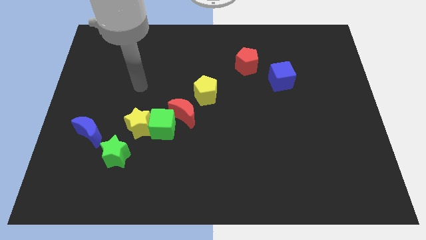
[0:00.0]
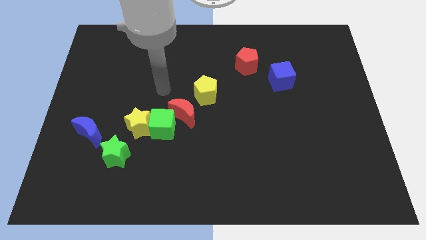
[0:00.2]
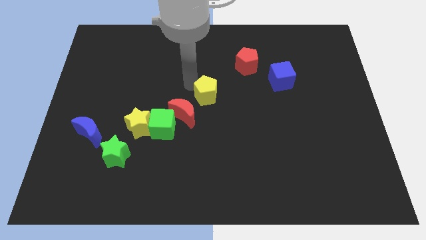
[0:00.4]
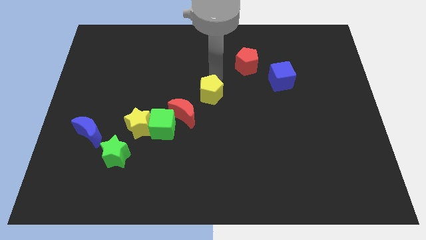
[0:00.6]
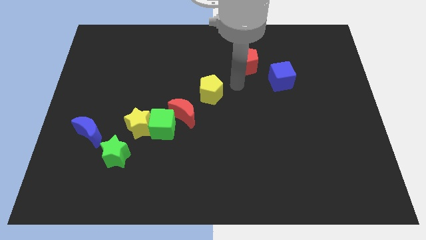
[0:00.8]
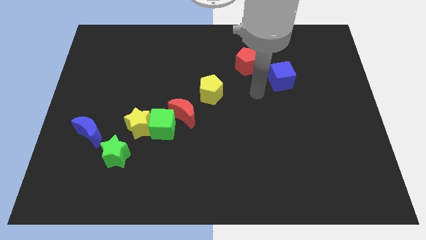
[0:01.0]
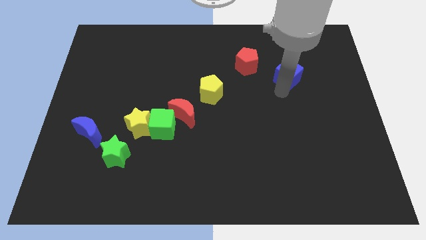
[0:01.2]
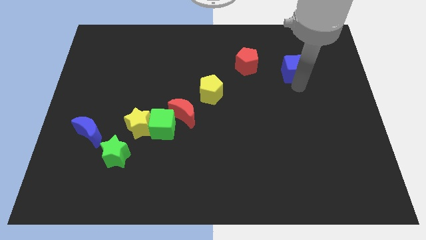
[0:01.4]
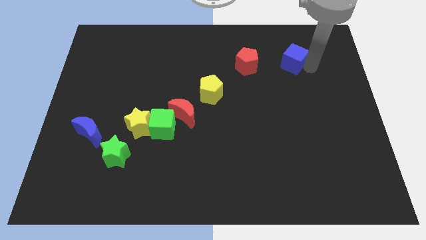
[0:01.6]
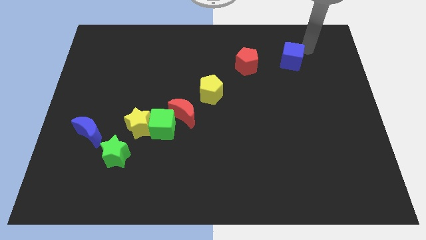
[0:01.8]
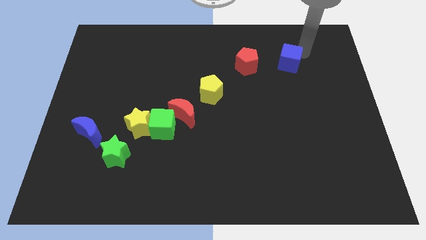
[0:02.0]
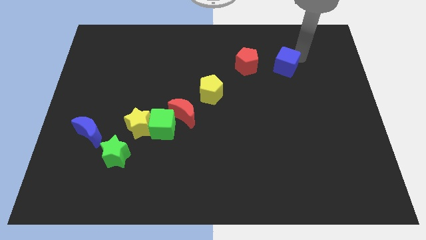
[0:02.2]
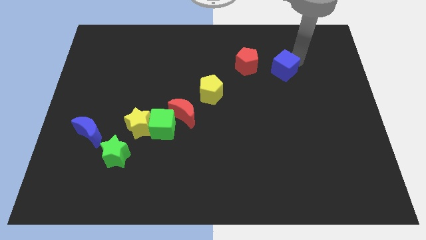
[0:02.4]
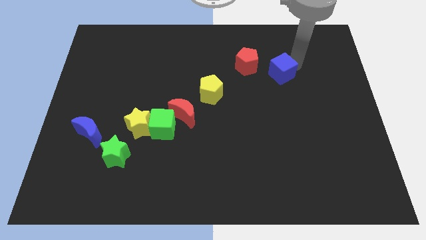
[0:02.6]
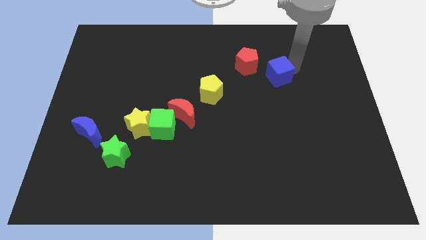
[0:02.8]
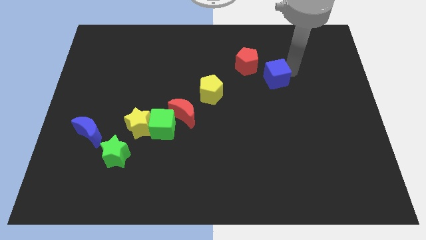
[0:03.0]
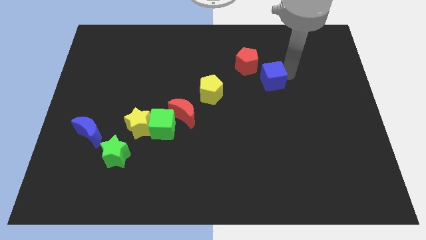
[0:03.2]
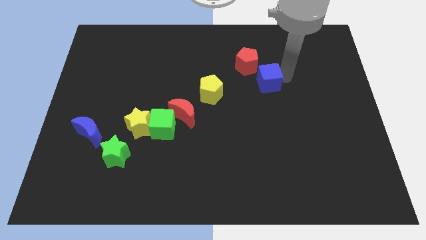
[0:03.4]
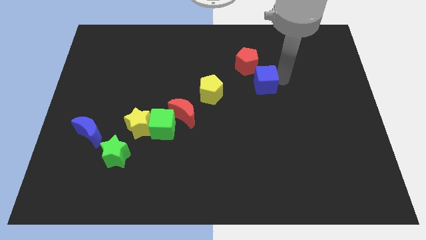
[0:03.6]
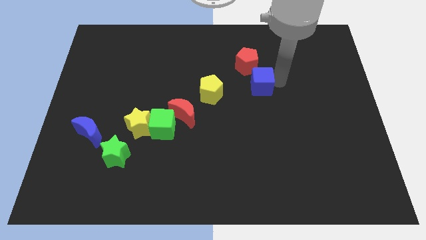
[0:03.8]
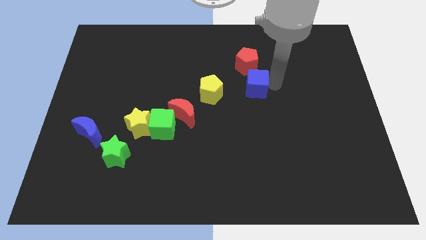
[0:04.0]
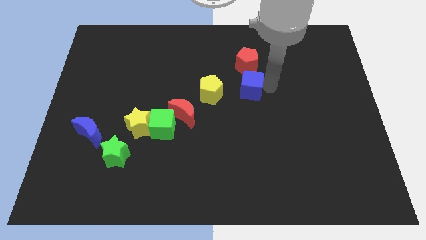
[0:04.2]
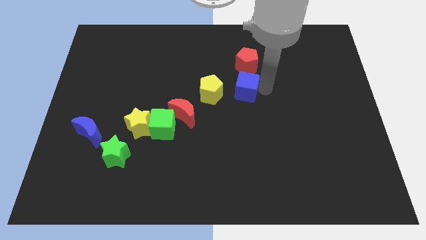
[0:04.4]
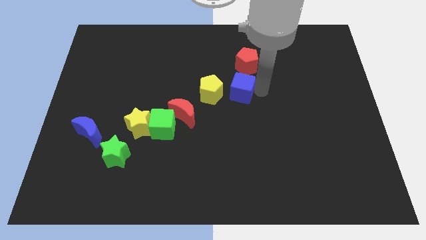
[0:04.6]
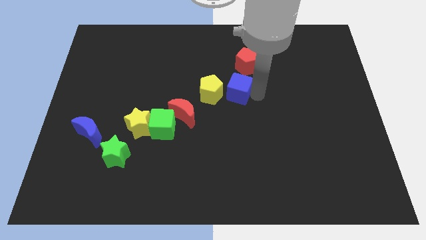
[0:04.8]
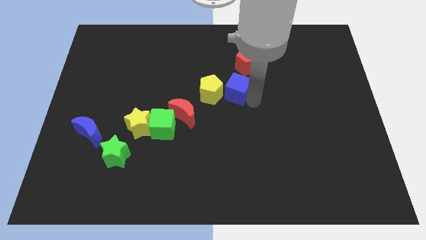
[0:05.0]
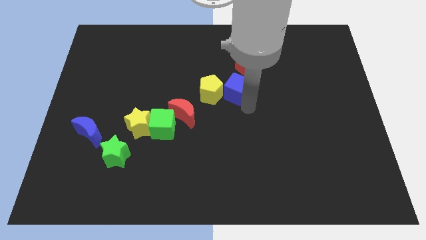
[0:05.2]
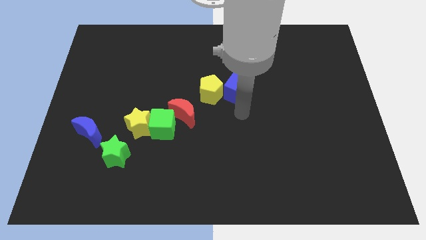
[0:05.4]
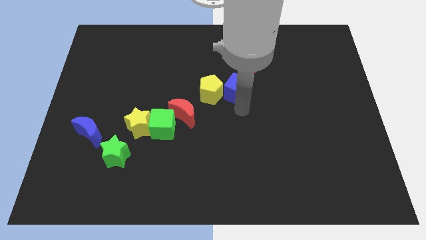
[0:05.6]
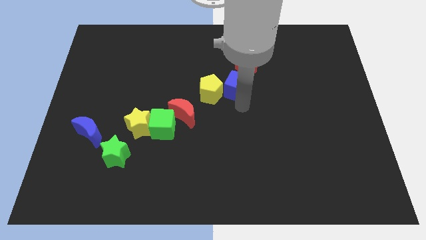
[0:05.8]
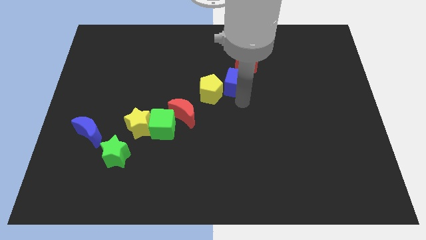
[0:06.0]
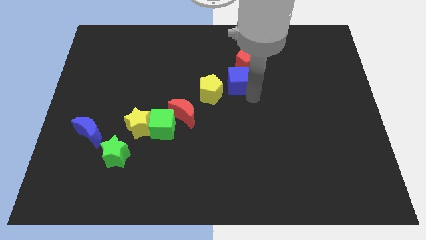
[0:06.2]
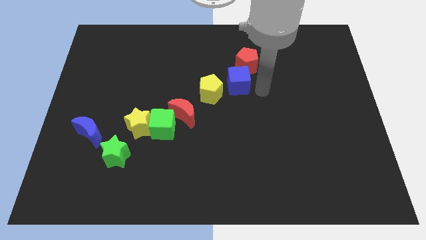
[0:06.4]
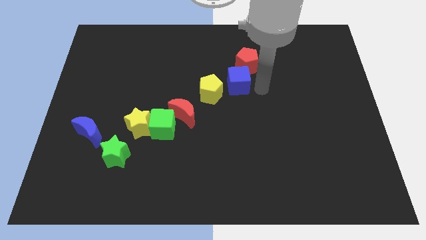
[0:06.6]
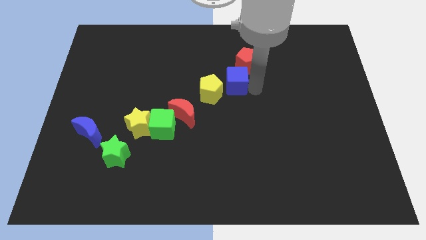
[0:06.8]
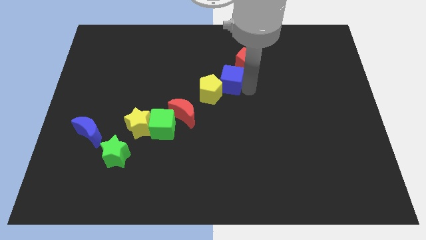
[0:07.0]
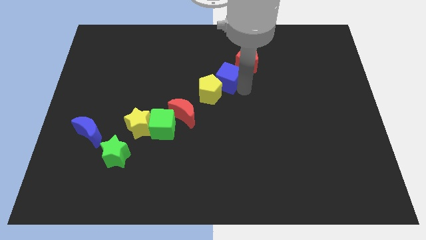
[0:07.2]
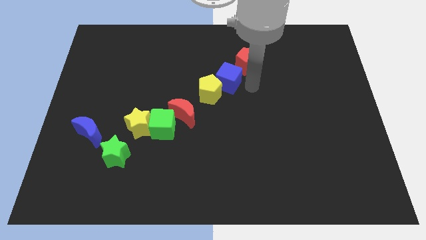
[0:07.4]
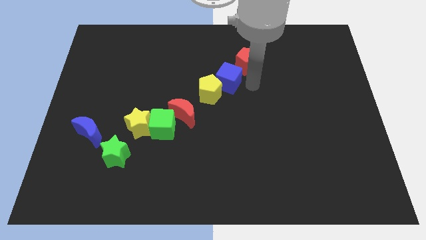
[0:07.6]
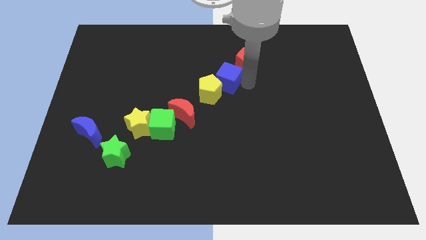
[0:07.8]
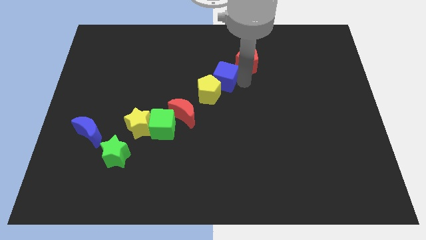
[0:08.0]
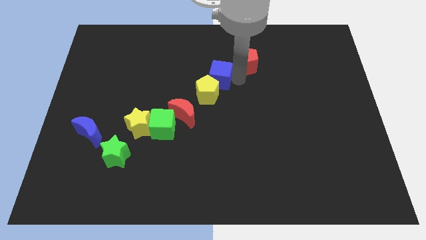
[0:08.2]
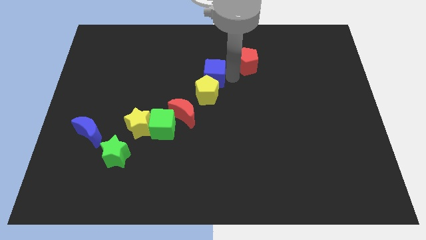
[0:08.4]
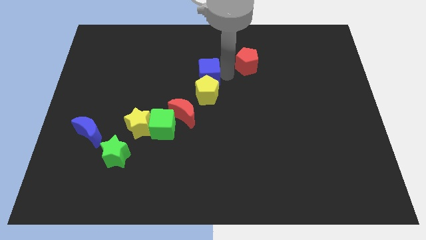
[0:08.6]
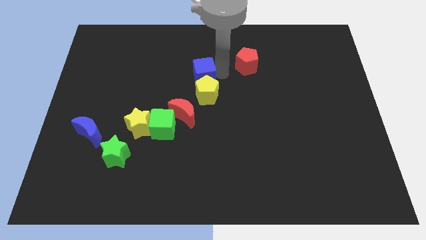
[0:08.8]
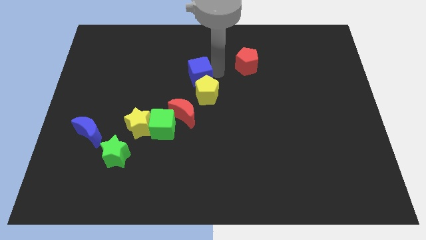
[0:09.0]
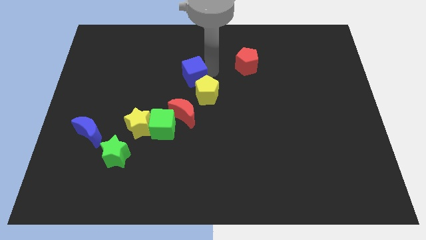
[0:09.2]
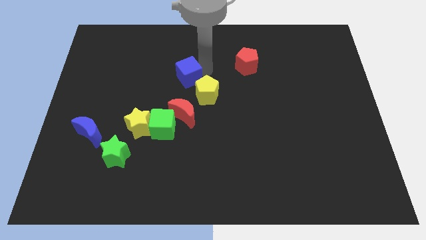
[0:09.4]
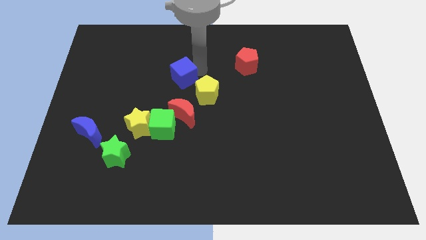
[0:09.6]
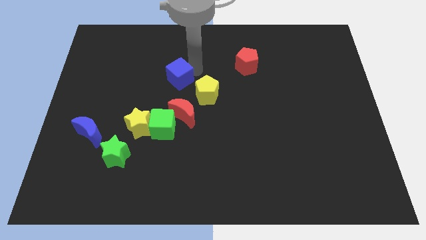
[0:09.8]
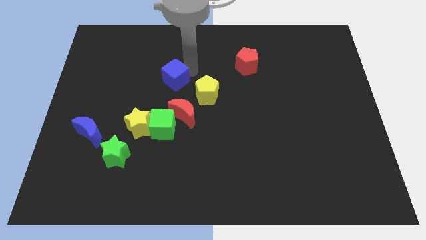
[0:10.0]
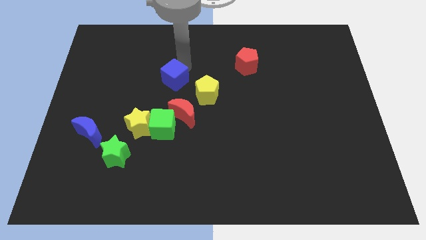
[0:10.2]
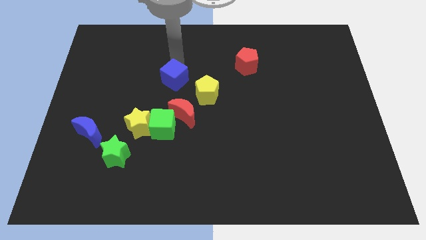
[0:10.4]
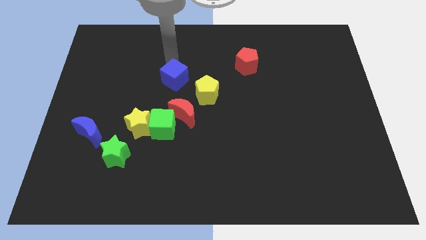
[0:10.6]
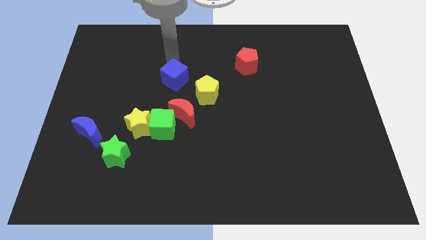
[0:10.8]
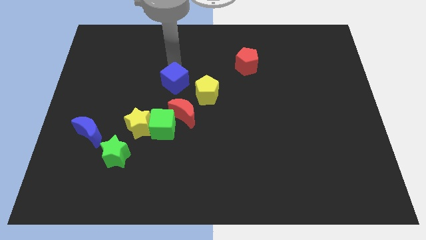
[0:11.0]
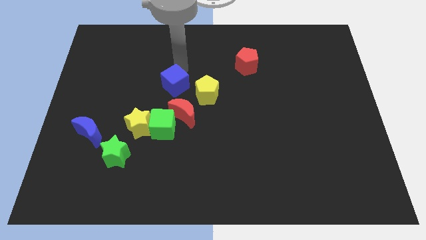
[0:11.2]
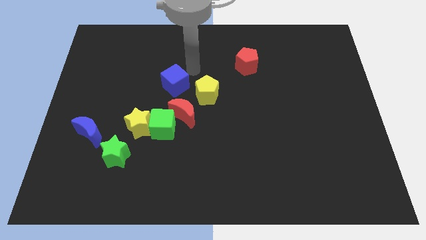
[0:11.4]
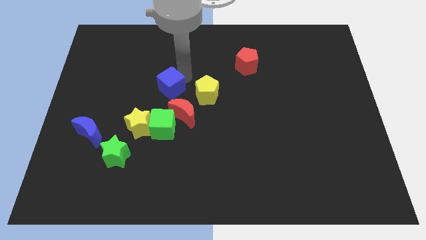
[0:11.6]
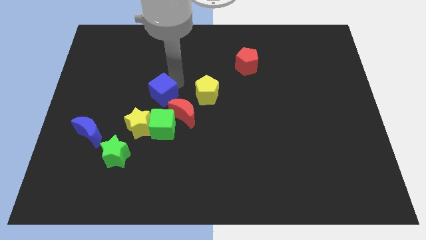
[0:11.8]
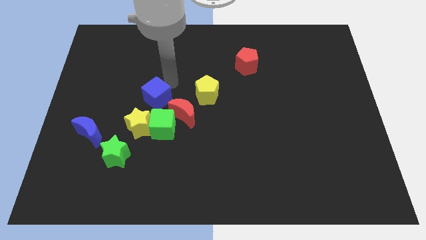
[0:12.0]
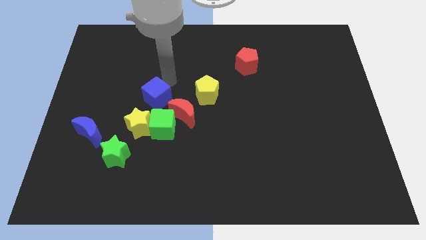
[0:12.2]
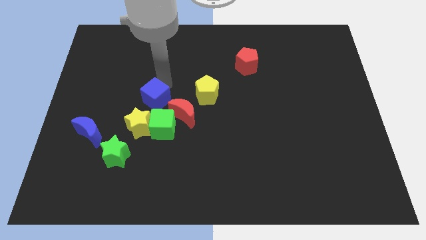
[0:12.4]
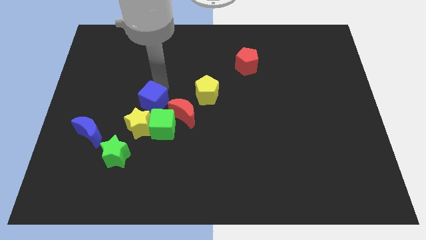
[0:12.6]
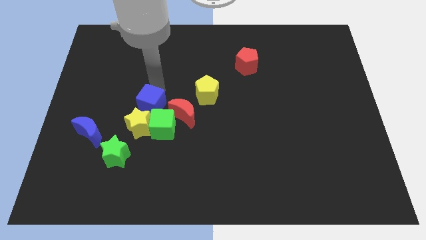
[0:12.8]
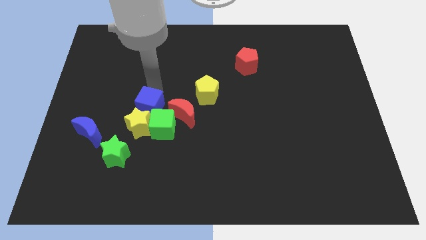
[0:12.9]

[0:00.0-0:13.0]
move the blue cube towards the yellow star

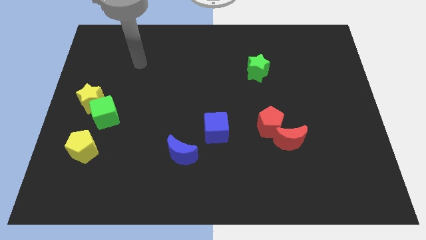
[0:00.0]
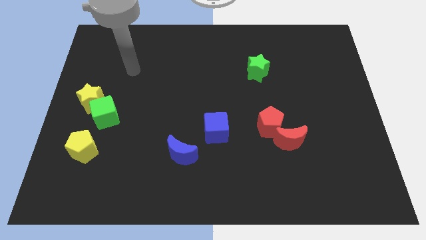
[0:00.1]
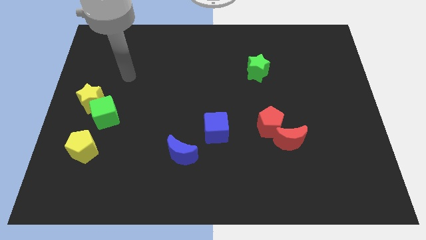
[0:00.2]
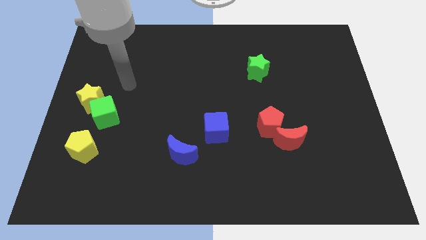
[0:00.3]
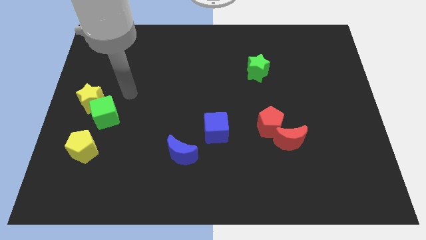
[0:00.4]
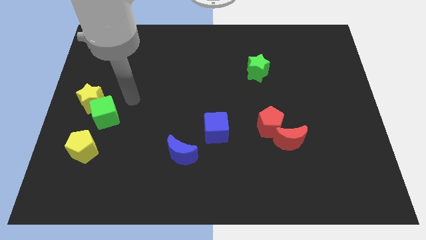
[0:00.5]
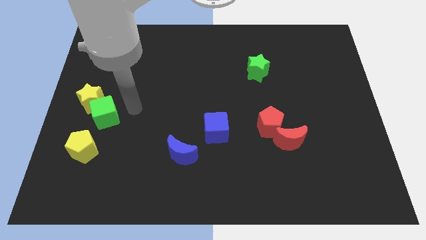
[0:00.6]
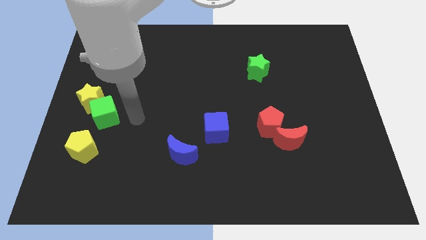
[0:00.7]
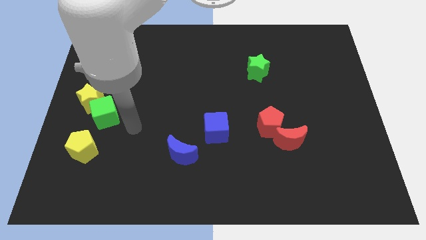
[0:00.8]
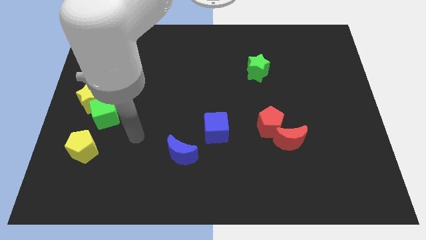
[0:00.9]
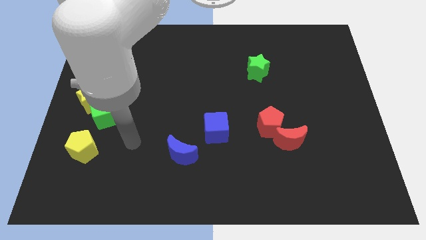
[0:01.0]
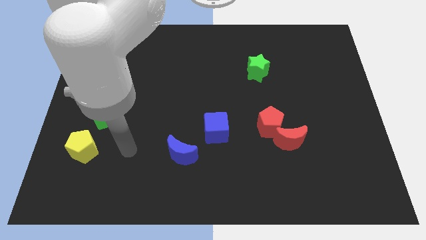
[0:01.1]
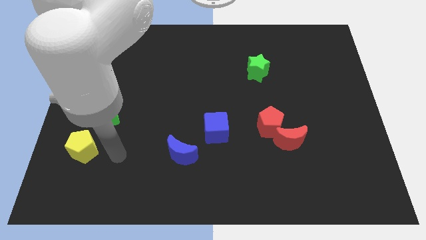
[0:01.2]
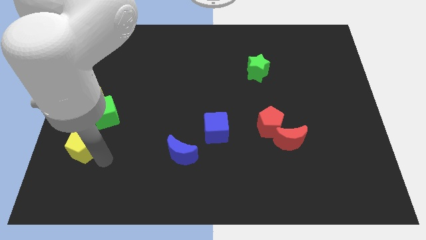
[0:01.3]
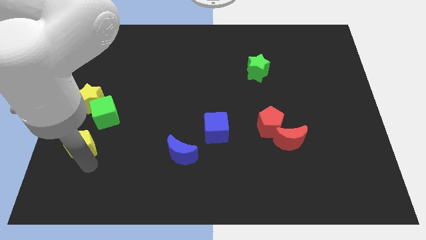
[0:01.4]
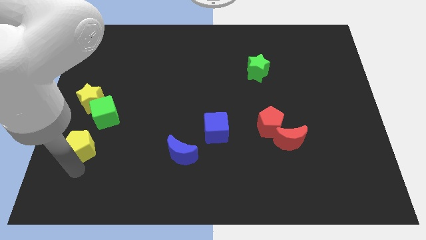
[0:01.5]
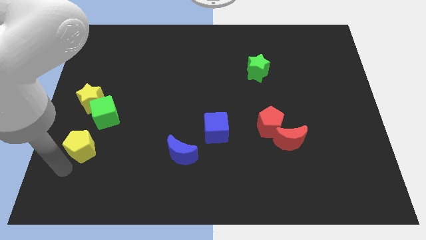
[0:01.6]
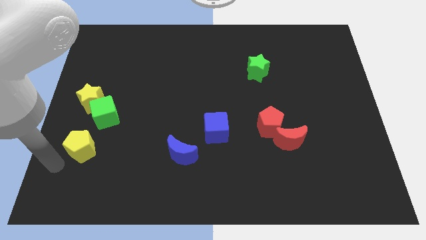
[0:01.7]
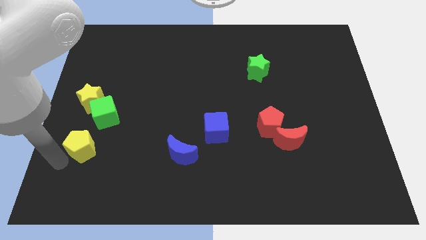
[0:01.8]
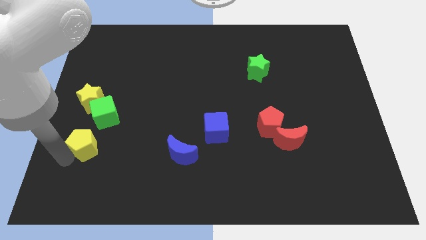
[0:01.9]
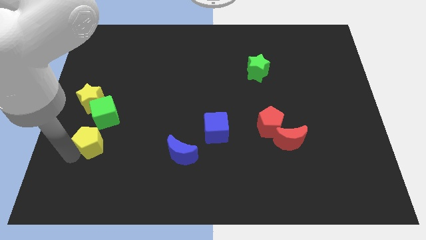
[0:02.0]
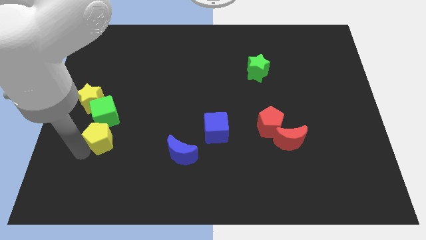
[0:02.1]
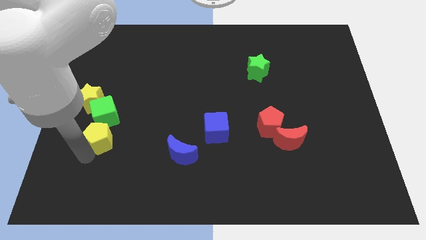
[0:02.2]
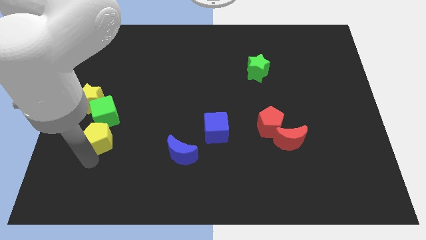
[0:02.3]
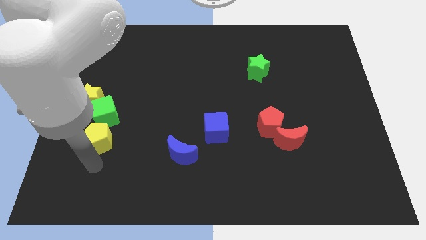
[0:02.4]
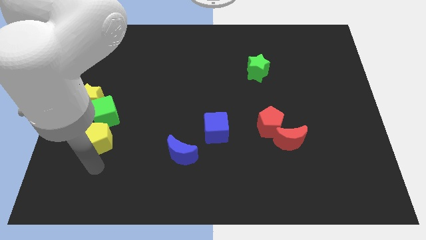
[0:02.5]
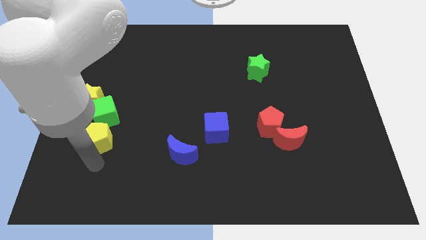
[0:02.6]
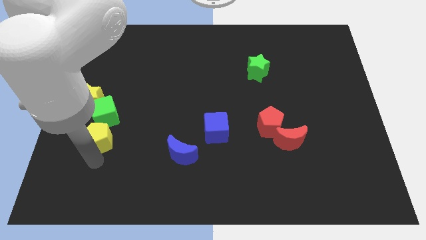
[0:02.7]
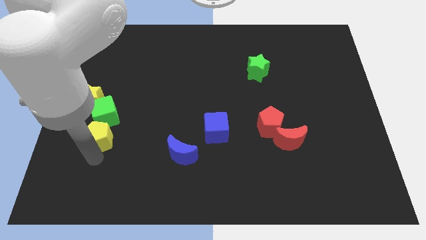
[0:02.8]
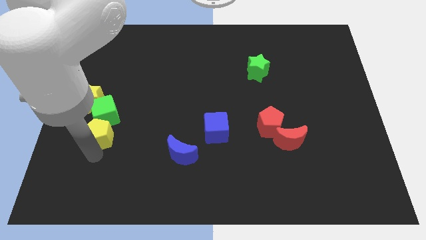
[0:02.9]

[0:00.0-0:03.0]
move the yellow pentagon close to the green cube
